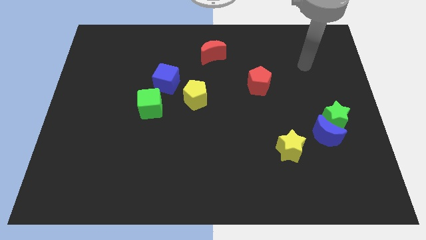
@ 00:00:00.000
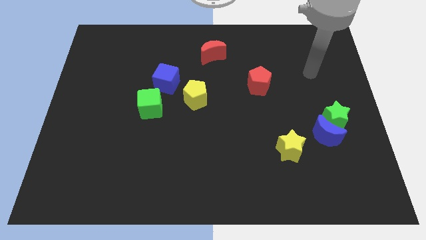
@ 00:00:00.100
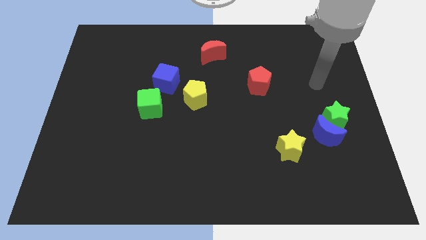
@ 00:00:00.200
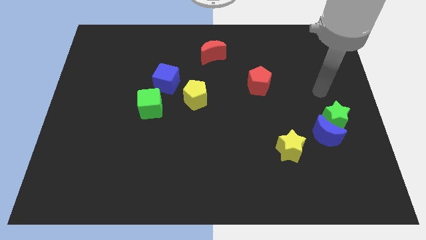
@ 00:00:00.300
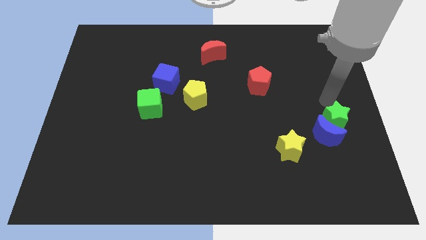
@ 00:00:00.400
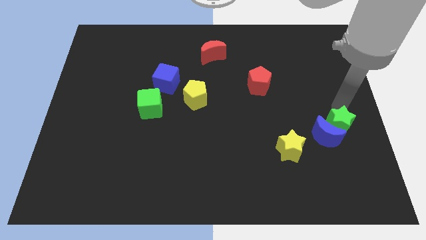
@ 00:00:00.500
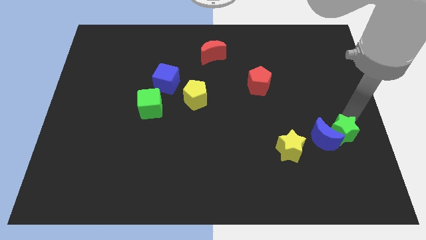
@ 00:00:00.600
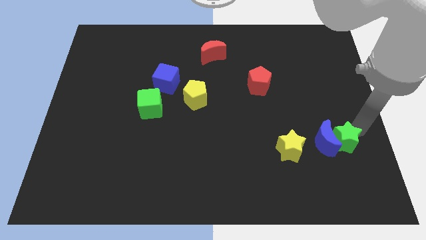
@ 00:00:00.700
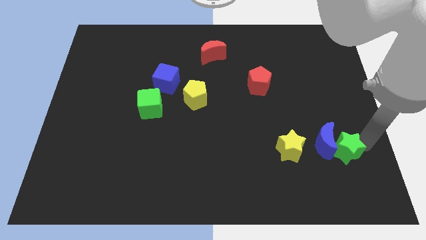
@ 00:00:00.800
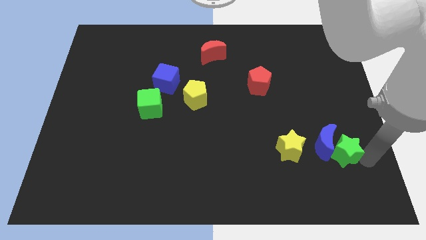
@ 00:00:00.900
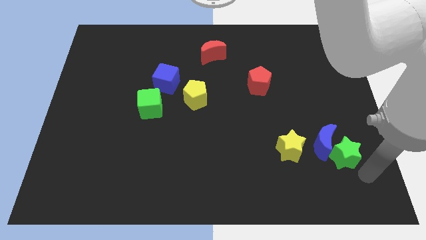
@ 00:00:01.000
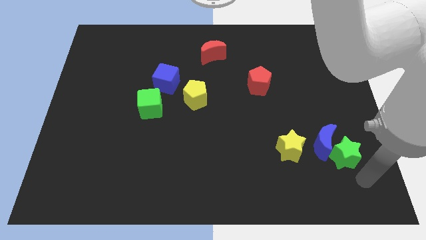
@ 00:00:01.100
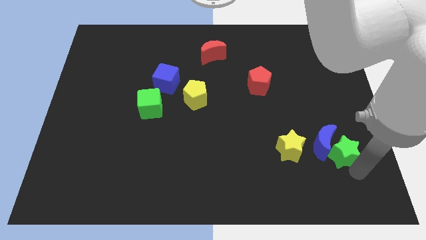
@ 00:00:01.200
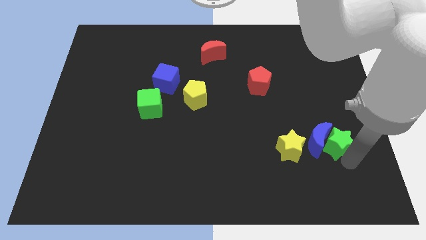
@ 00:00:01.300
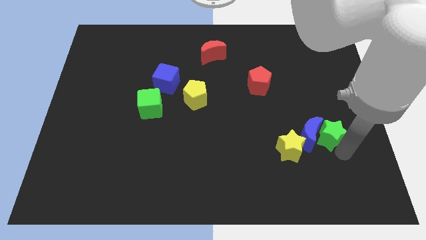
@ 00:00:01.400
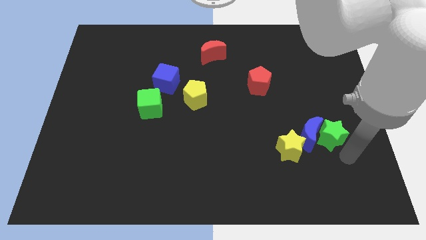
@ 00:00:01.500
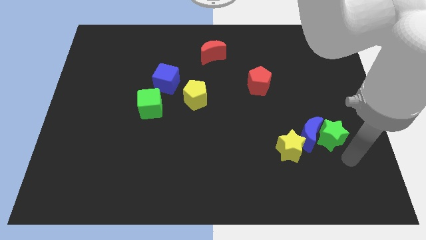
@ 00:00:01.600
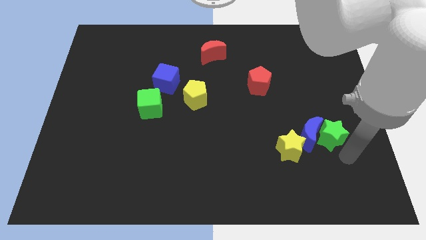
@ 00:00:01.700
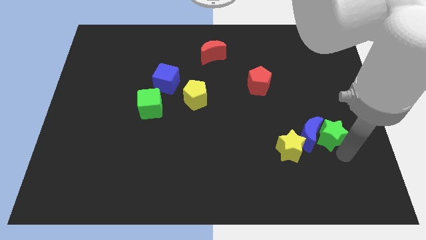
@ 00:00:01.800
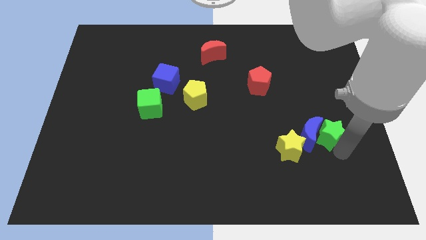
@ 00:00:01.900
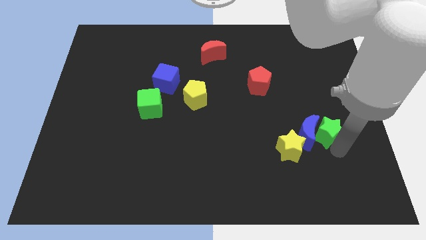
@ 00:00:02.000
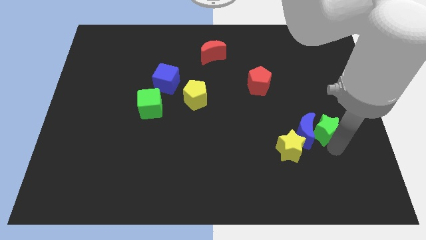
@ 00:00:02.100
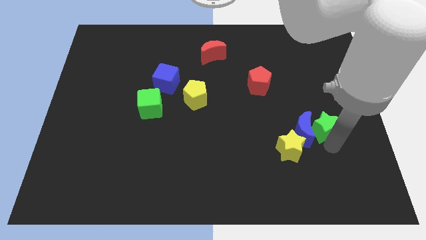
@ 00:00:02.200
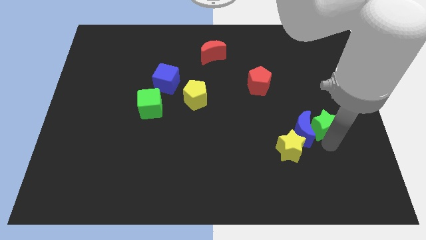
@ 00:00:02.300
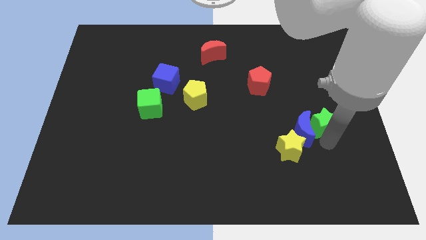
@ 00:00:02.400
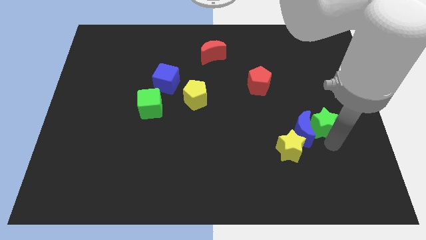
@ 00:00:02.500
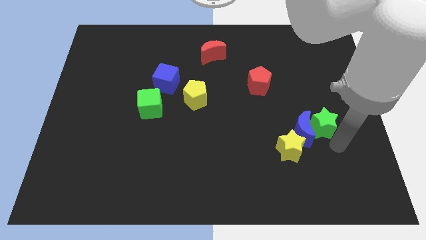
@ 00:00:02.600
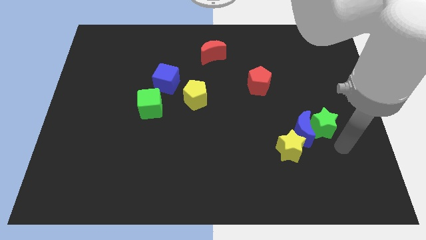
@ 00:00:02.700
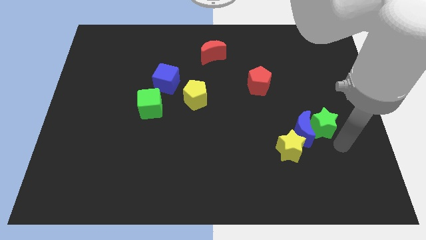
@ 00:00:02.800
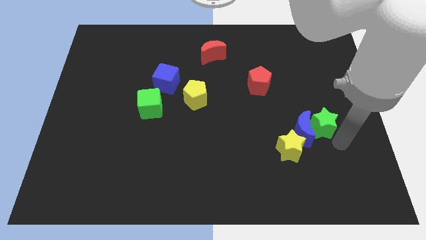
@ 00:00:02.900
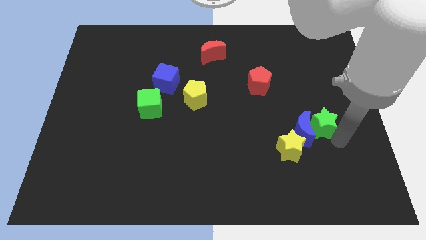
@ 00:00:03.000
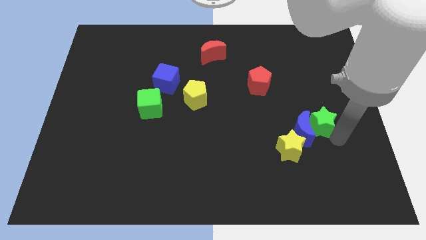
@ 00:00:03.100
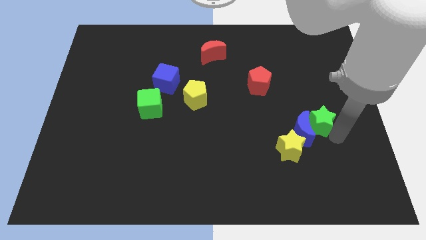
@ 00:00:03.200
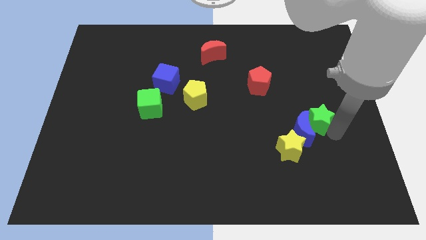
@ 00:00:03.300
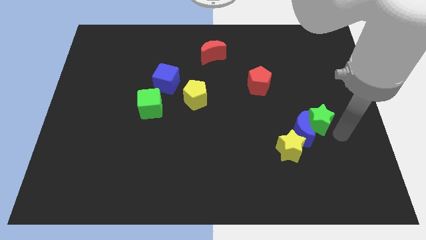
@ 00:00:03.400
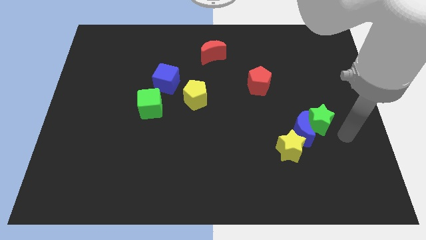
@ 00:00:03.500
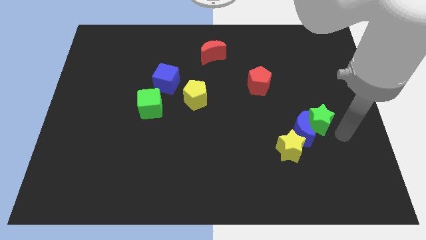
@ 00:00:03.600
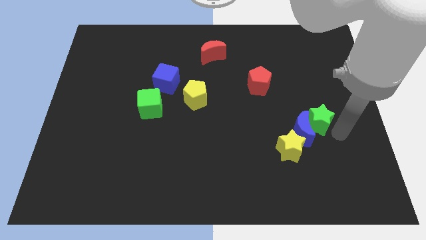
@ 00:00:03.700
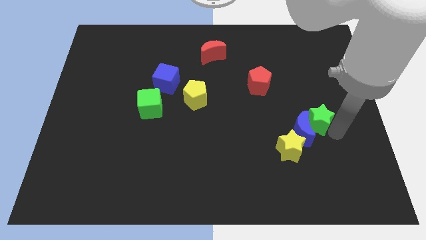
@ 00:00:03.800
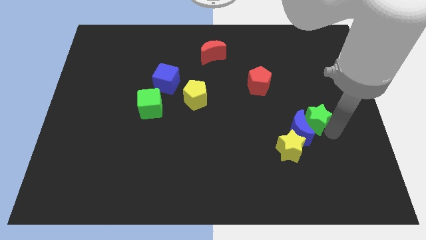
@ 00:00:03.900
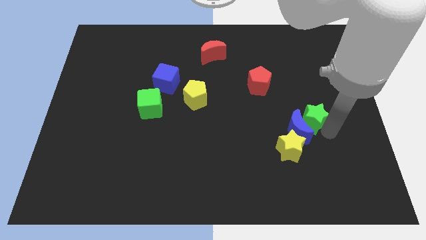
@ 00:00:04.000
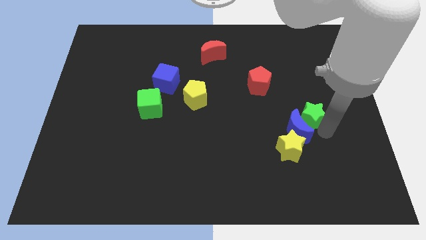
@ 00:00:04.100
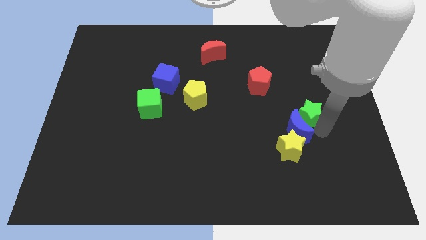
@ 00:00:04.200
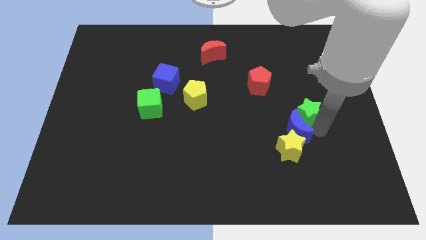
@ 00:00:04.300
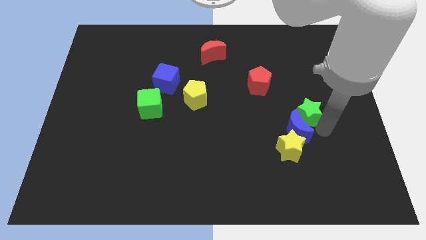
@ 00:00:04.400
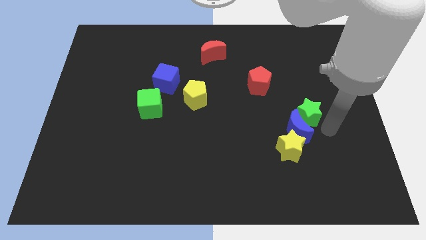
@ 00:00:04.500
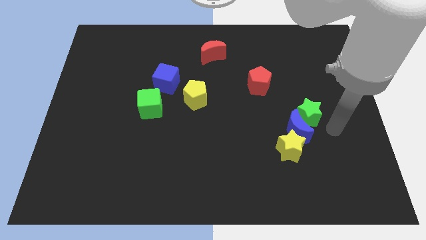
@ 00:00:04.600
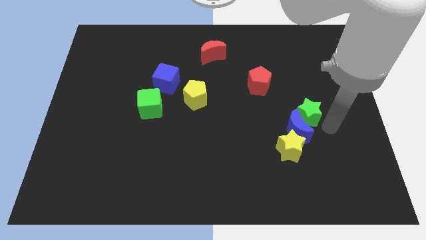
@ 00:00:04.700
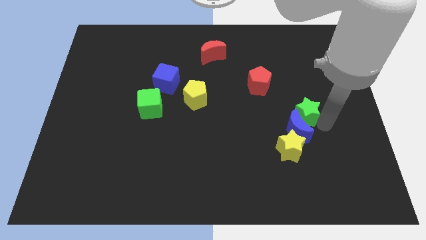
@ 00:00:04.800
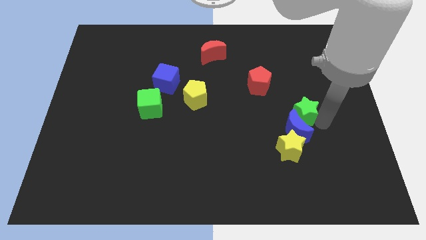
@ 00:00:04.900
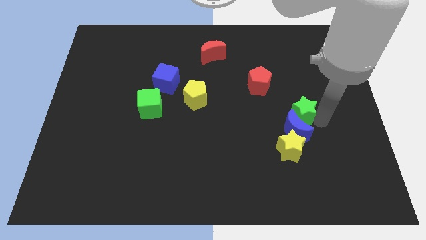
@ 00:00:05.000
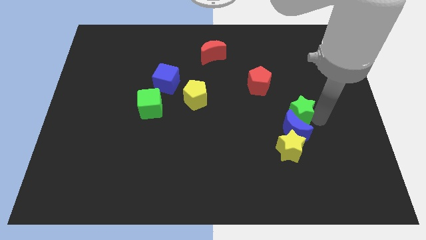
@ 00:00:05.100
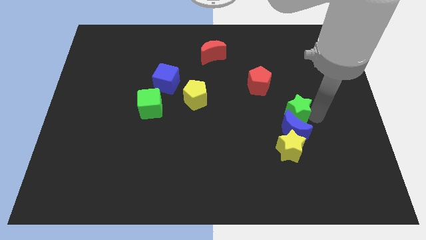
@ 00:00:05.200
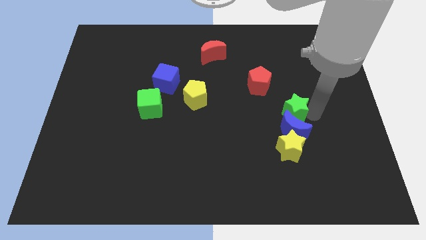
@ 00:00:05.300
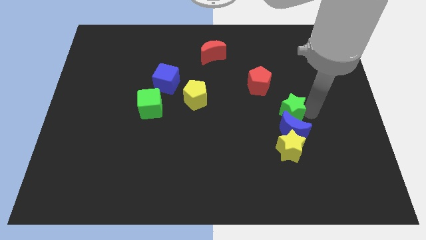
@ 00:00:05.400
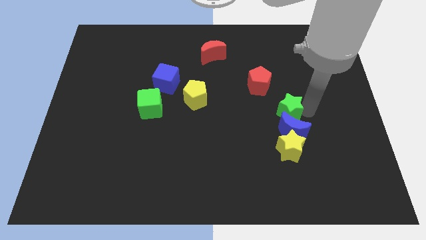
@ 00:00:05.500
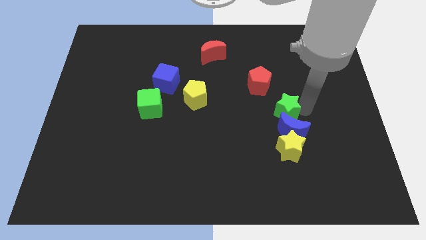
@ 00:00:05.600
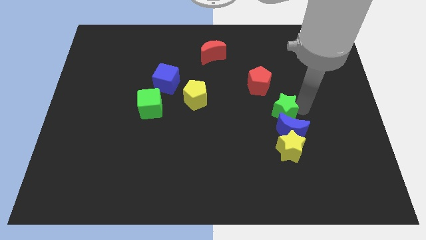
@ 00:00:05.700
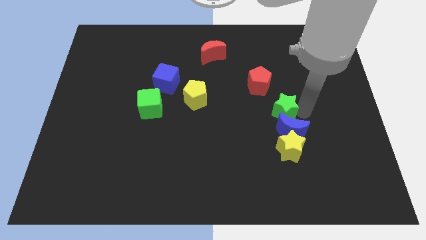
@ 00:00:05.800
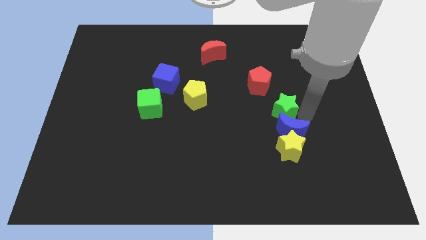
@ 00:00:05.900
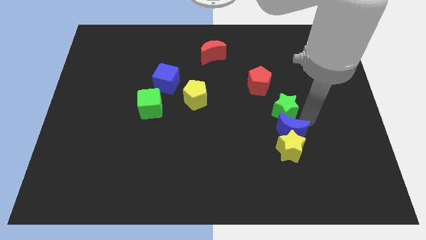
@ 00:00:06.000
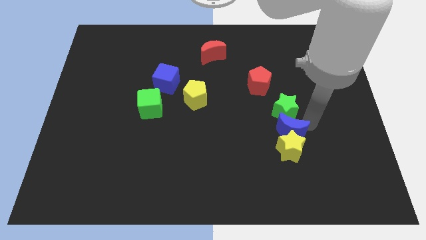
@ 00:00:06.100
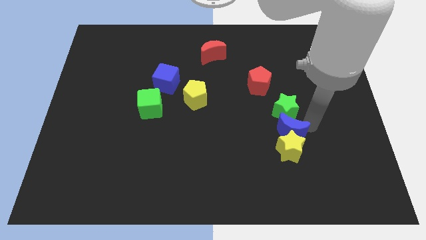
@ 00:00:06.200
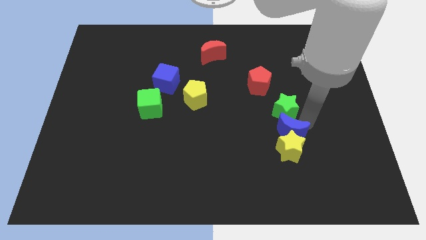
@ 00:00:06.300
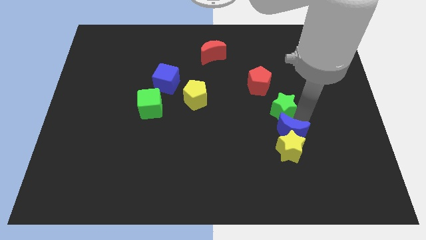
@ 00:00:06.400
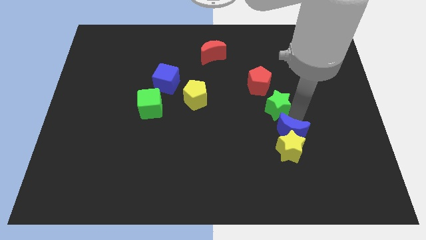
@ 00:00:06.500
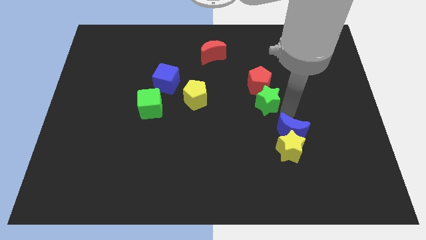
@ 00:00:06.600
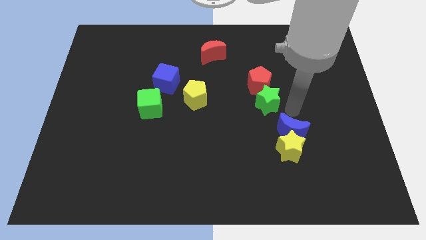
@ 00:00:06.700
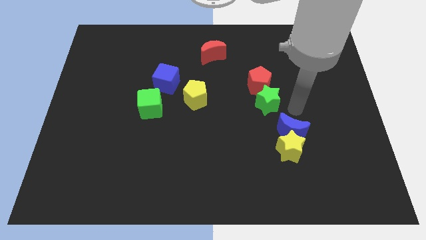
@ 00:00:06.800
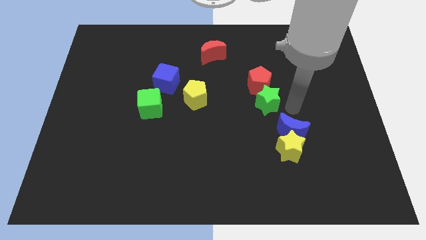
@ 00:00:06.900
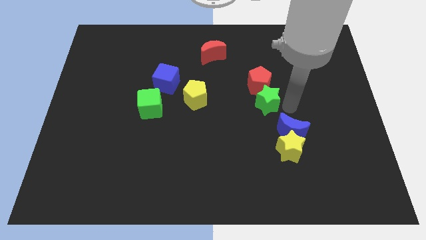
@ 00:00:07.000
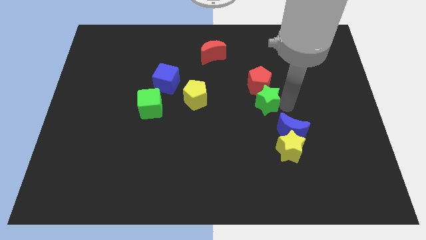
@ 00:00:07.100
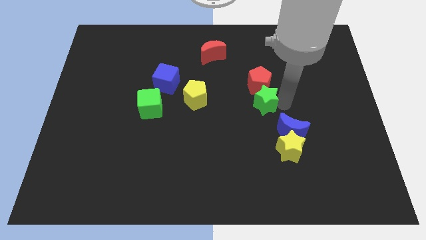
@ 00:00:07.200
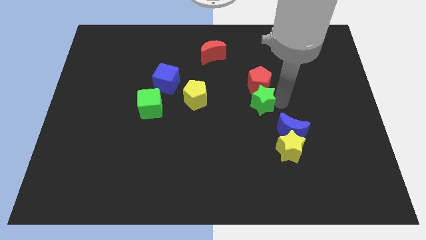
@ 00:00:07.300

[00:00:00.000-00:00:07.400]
slide the green star to the right of the yellow pentagon
